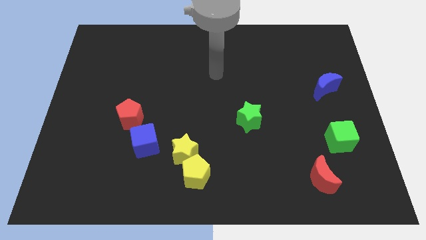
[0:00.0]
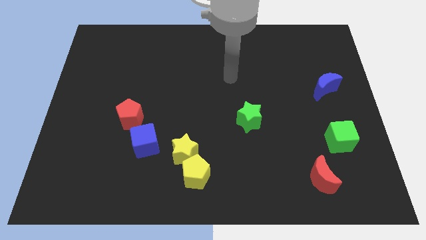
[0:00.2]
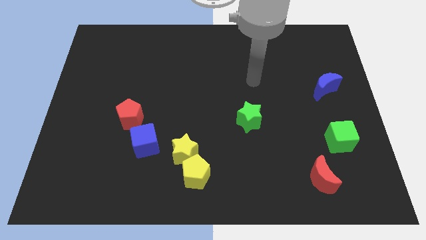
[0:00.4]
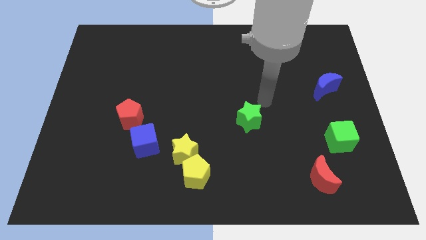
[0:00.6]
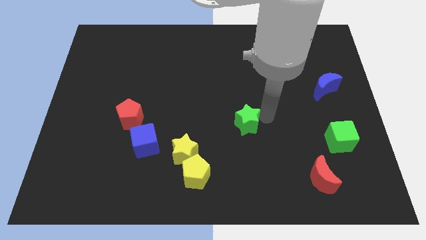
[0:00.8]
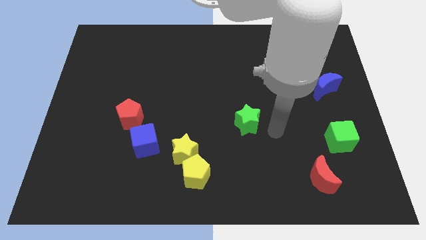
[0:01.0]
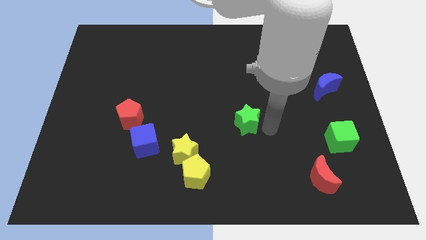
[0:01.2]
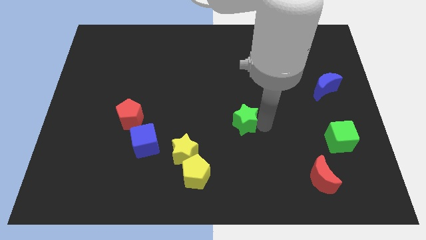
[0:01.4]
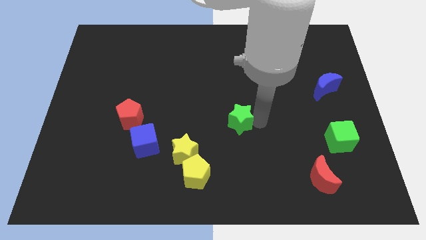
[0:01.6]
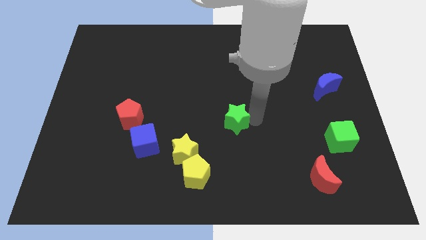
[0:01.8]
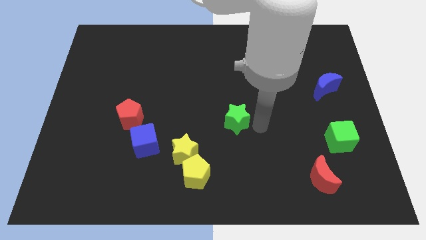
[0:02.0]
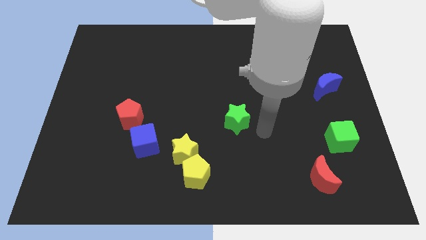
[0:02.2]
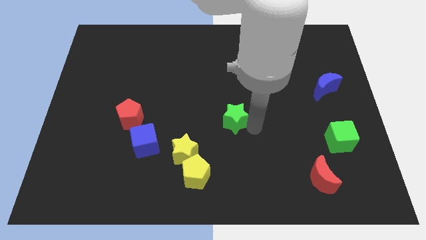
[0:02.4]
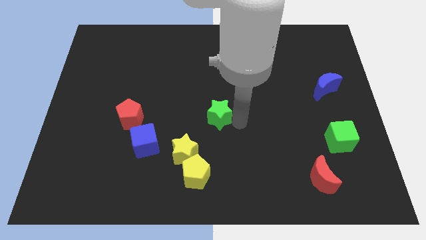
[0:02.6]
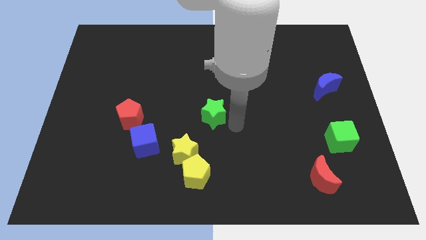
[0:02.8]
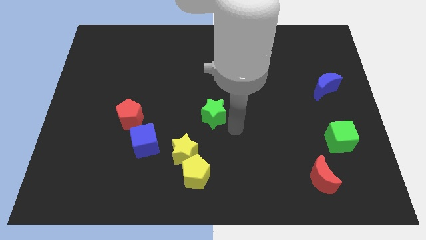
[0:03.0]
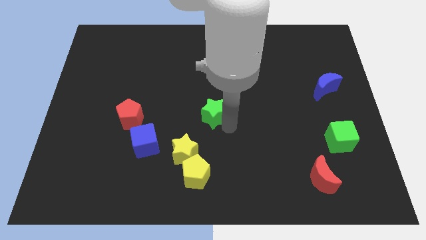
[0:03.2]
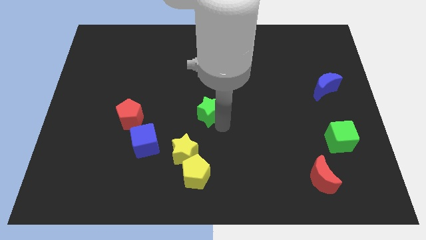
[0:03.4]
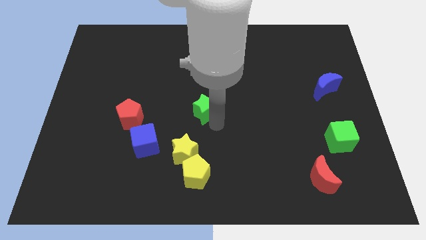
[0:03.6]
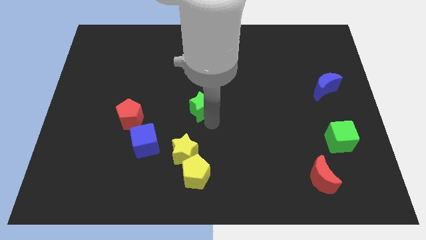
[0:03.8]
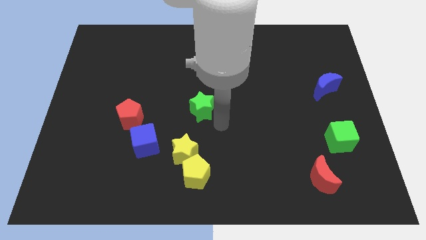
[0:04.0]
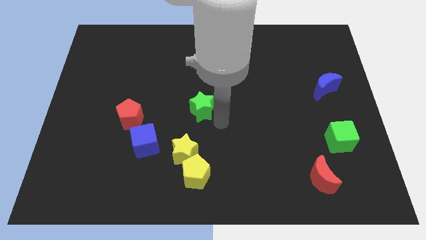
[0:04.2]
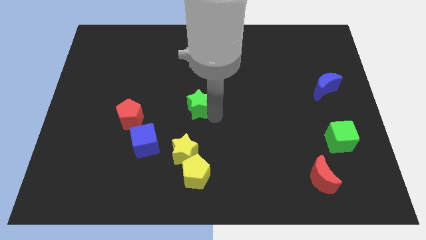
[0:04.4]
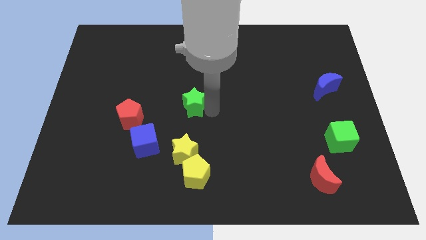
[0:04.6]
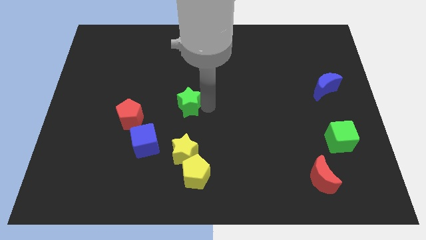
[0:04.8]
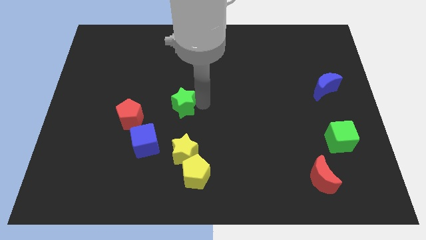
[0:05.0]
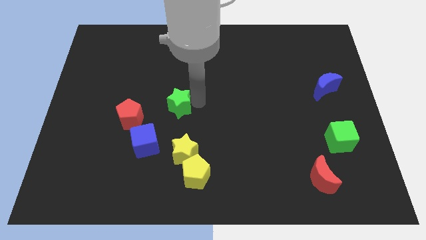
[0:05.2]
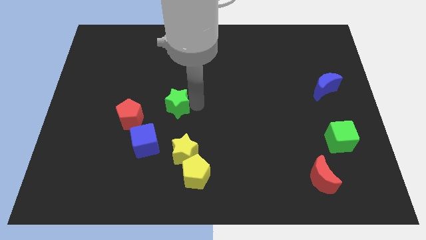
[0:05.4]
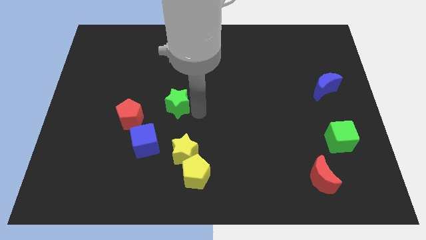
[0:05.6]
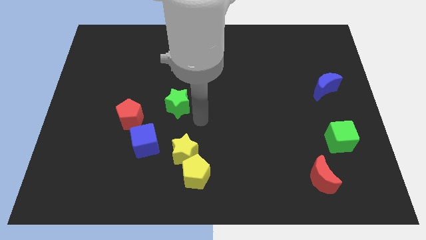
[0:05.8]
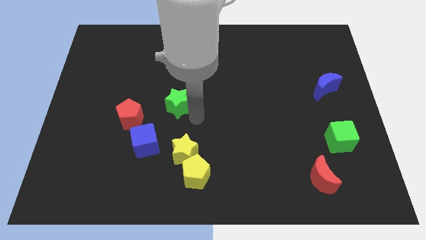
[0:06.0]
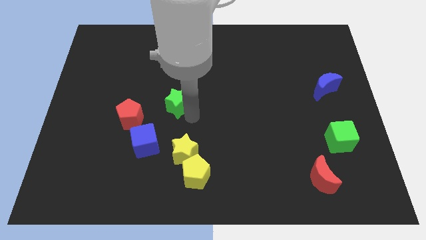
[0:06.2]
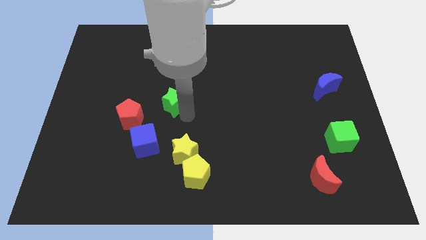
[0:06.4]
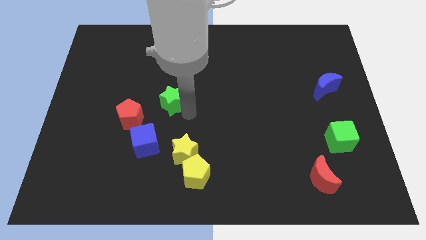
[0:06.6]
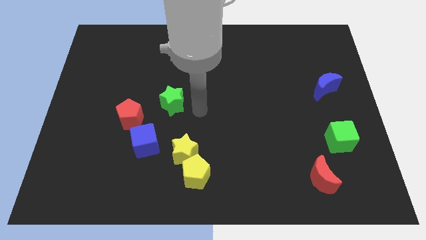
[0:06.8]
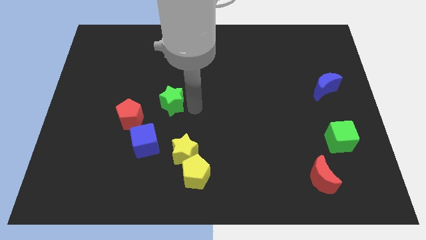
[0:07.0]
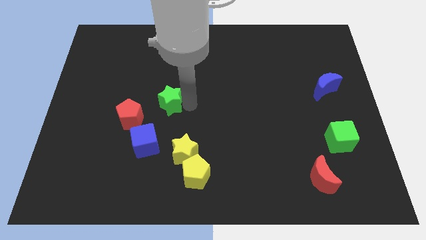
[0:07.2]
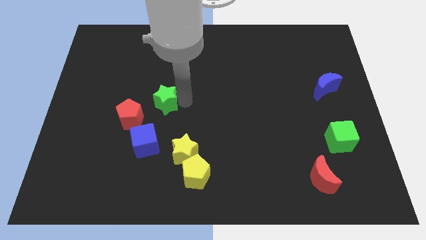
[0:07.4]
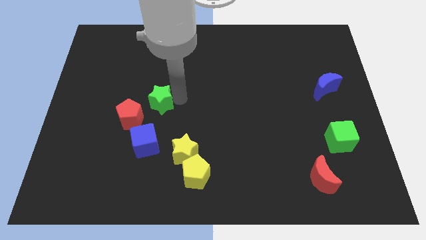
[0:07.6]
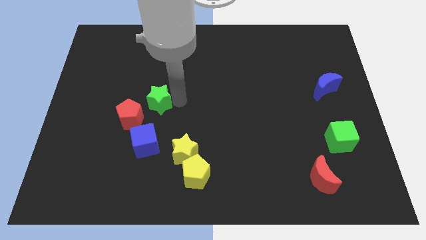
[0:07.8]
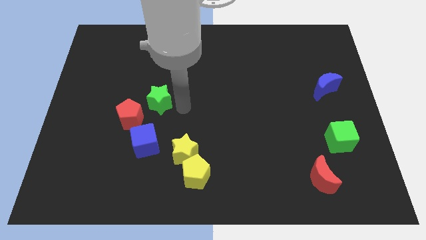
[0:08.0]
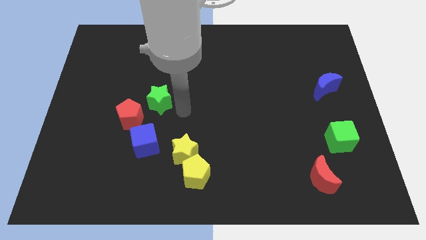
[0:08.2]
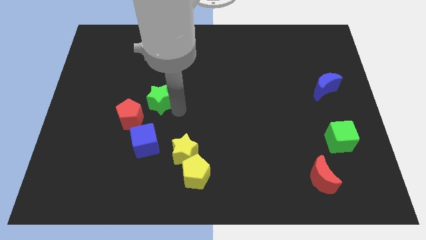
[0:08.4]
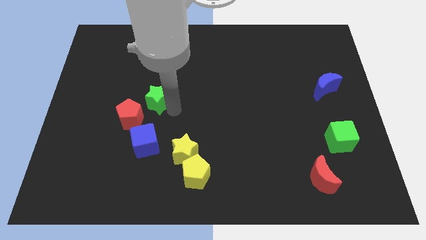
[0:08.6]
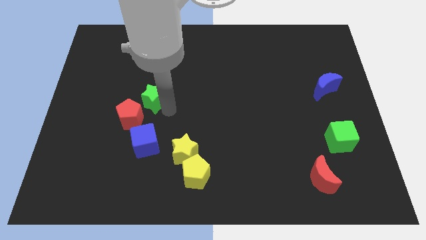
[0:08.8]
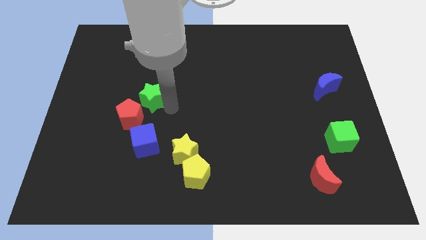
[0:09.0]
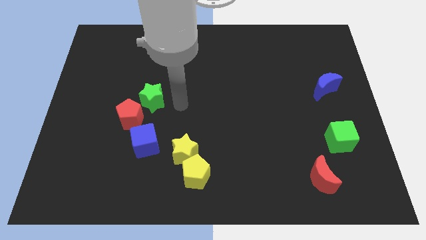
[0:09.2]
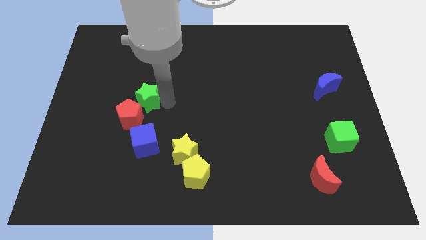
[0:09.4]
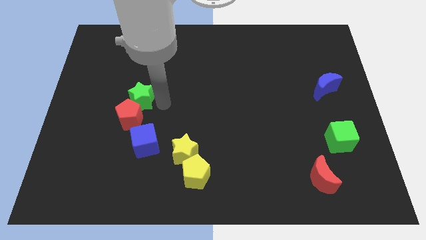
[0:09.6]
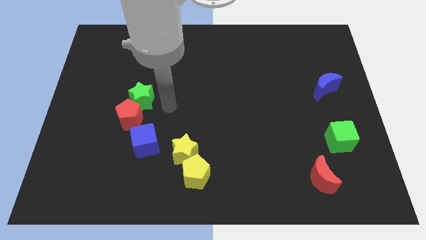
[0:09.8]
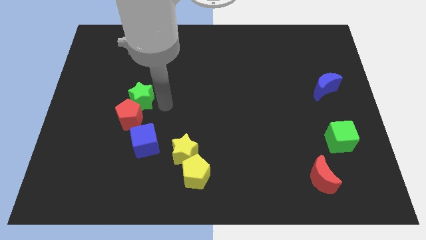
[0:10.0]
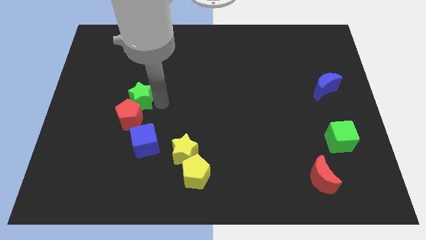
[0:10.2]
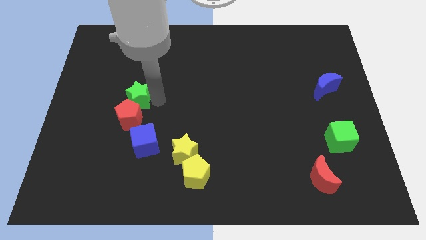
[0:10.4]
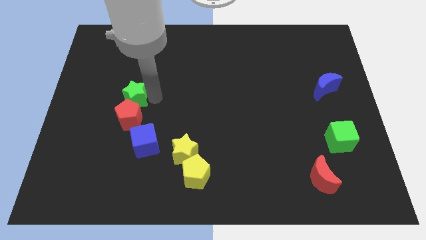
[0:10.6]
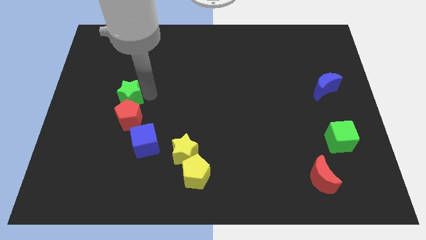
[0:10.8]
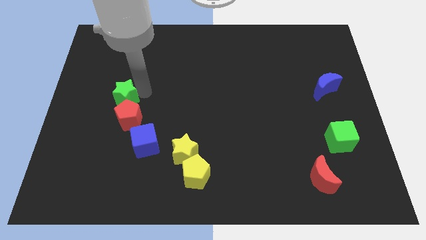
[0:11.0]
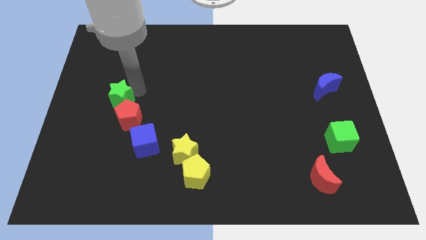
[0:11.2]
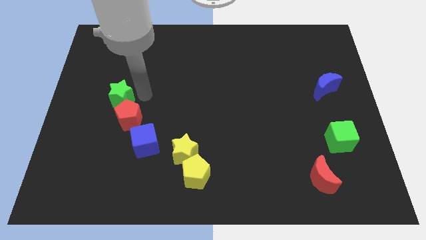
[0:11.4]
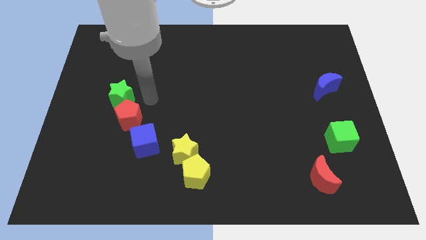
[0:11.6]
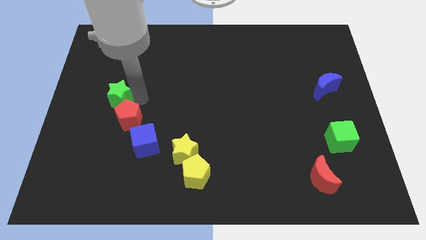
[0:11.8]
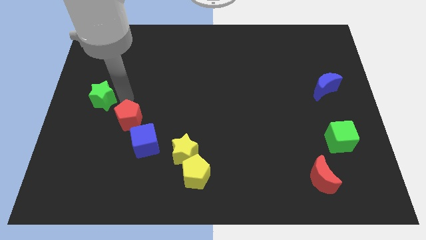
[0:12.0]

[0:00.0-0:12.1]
move the green star to the center left

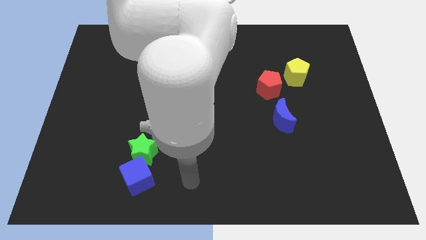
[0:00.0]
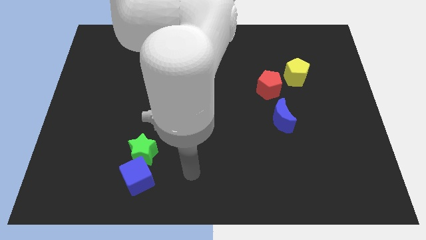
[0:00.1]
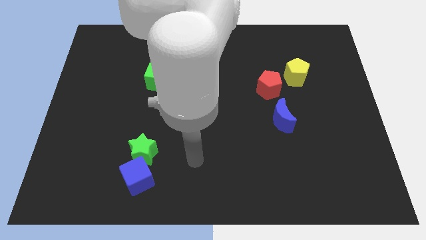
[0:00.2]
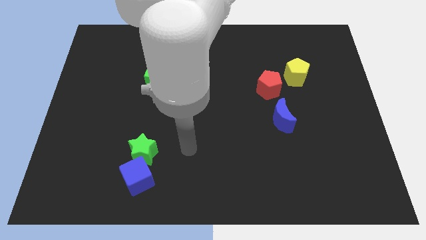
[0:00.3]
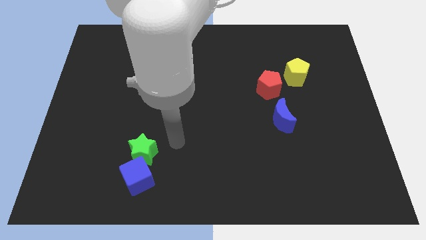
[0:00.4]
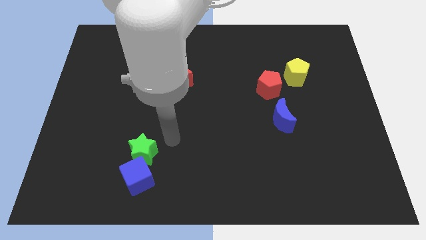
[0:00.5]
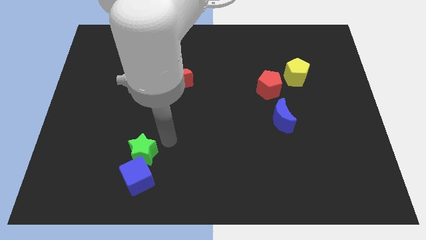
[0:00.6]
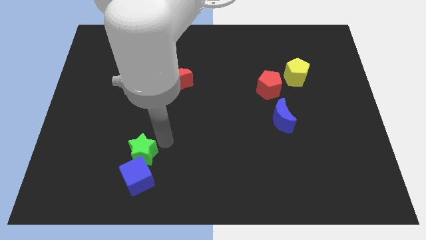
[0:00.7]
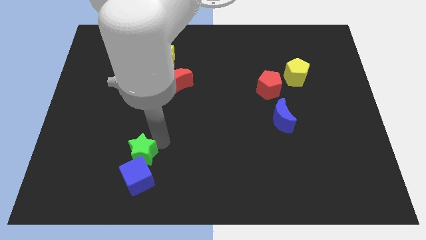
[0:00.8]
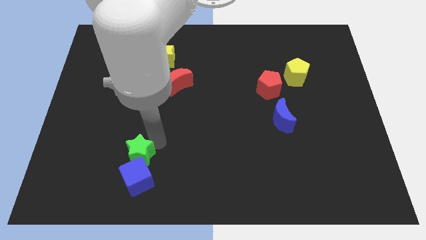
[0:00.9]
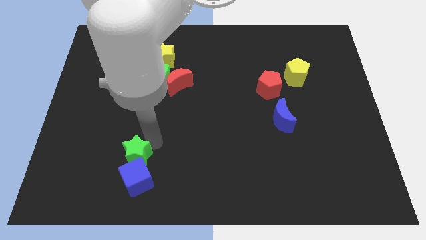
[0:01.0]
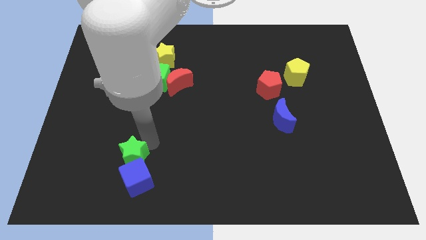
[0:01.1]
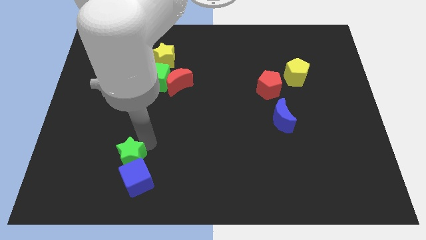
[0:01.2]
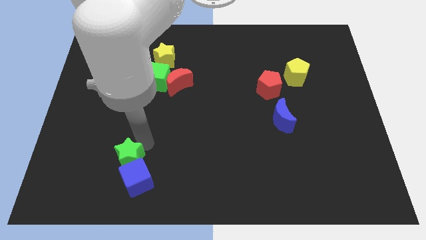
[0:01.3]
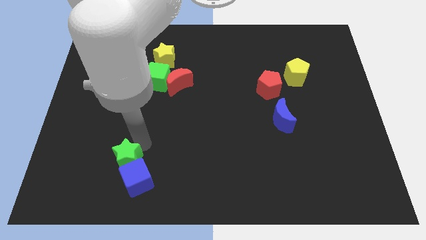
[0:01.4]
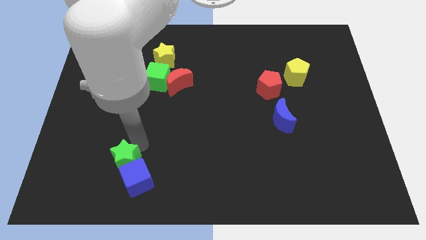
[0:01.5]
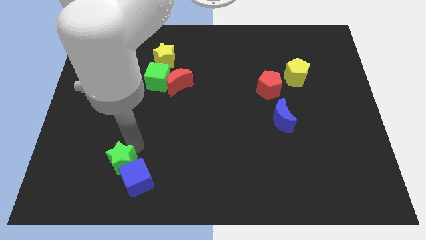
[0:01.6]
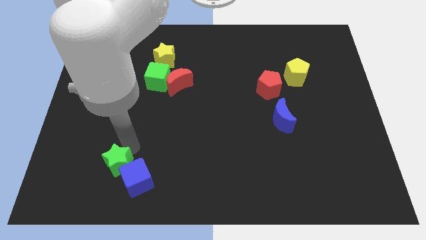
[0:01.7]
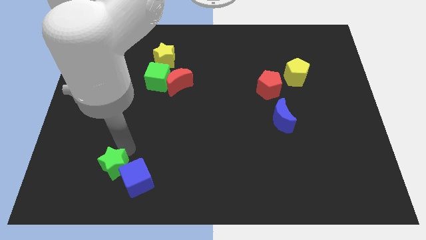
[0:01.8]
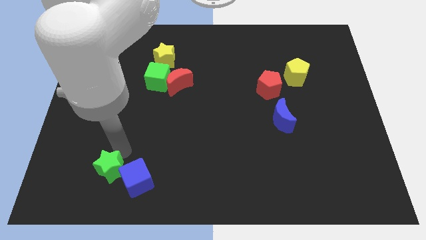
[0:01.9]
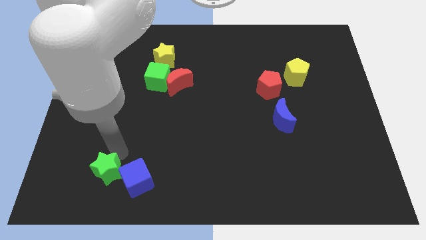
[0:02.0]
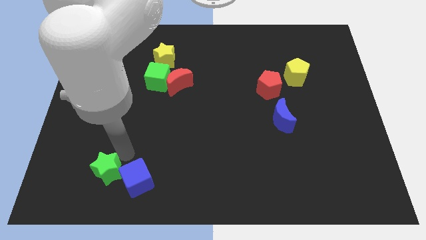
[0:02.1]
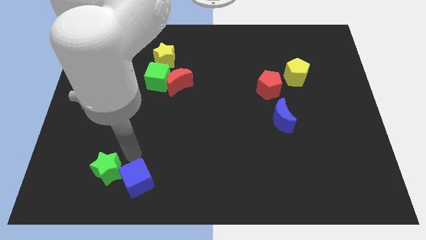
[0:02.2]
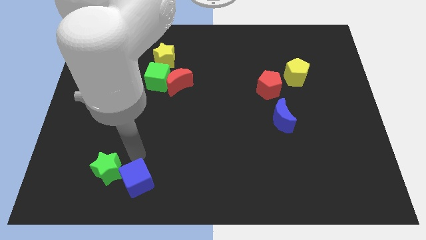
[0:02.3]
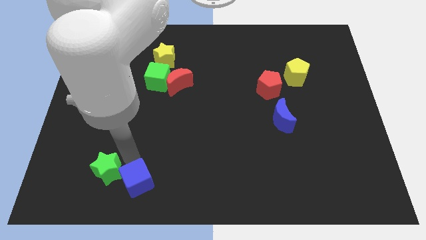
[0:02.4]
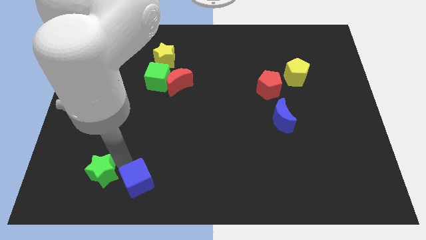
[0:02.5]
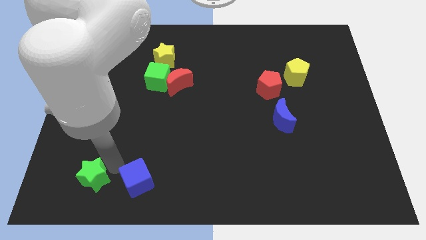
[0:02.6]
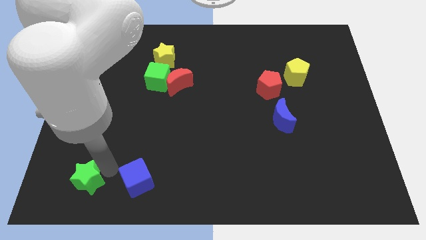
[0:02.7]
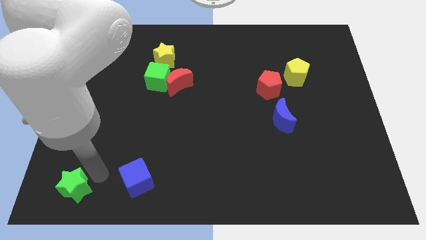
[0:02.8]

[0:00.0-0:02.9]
push the green star to the bottom left of the board
